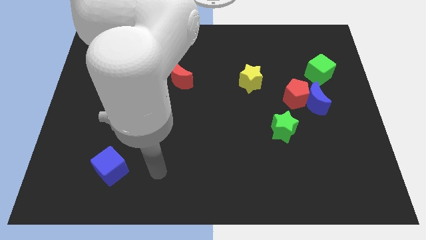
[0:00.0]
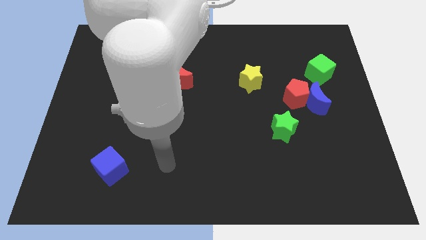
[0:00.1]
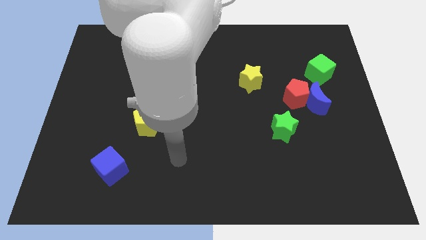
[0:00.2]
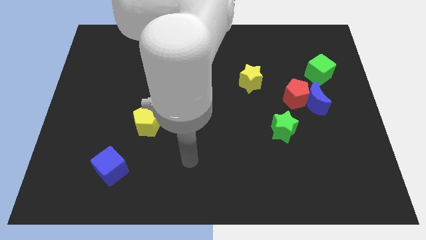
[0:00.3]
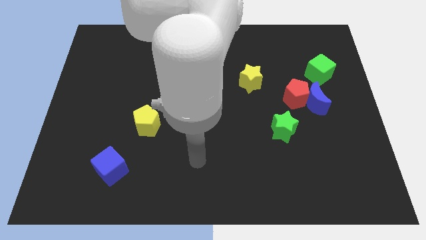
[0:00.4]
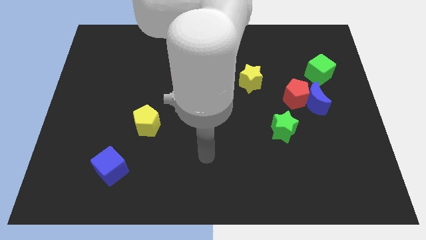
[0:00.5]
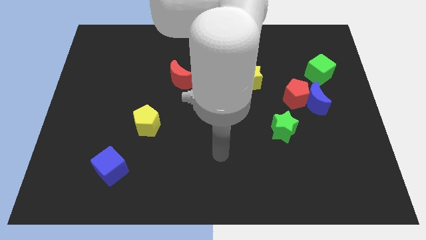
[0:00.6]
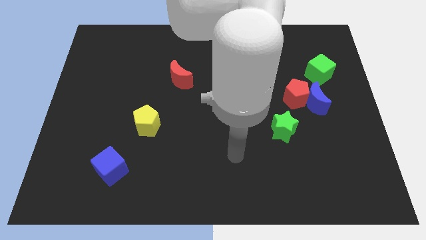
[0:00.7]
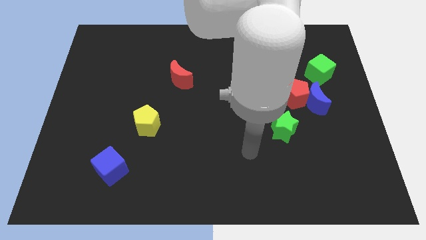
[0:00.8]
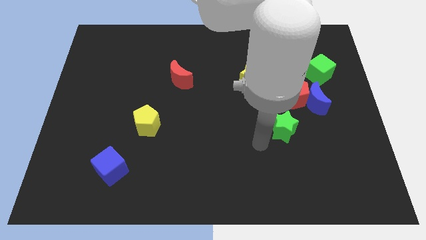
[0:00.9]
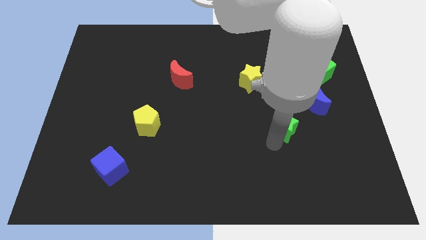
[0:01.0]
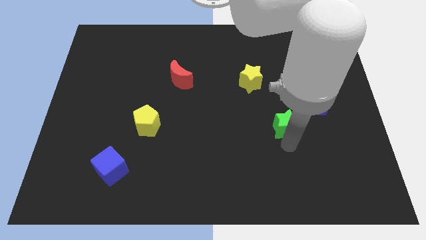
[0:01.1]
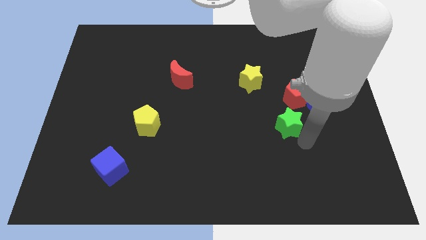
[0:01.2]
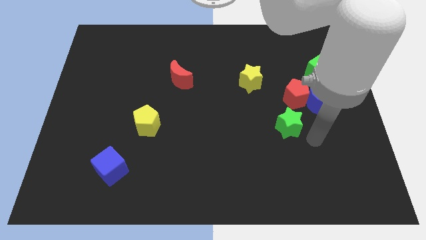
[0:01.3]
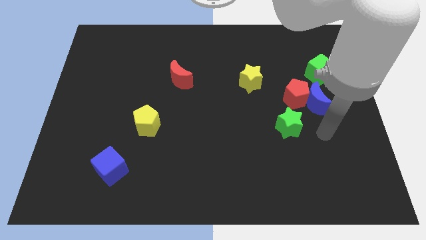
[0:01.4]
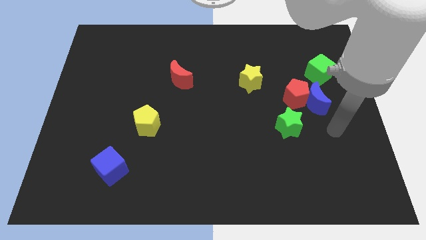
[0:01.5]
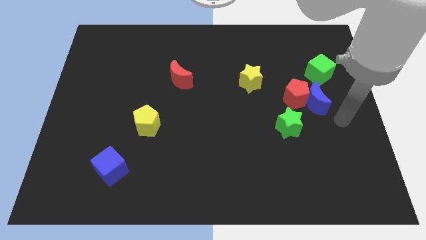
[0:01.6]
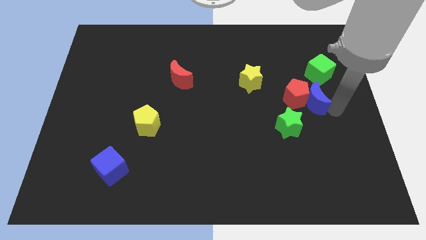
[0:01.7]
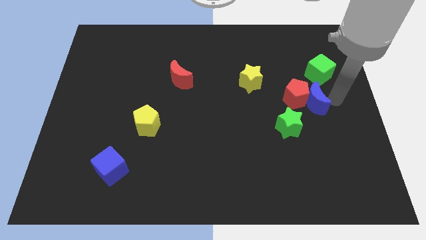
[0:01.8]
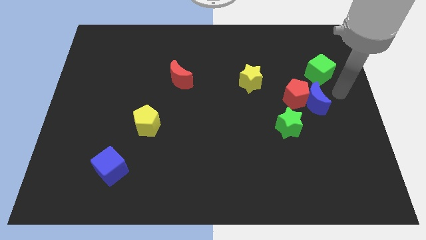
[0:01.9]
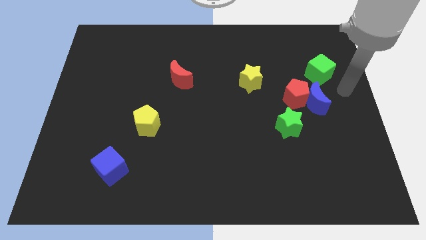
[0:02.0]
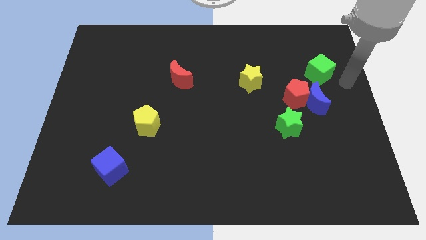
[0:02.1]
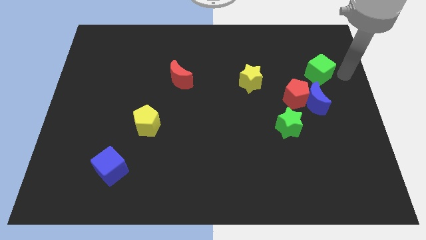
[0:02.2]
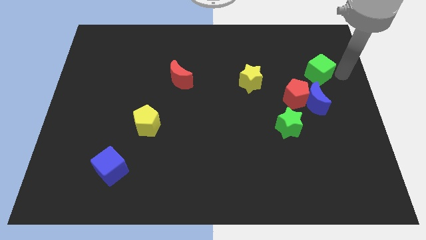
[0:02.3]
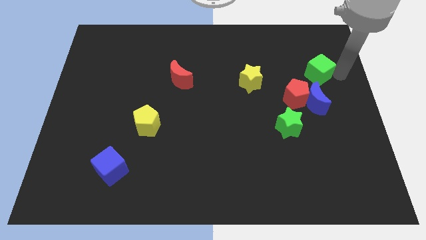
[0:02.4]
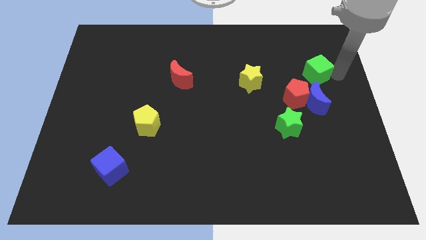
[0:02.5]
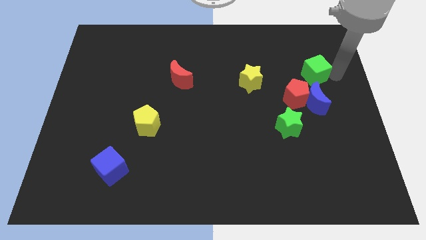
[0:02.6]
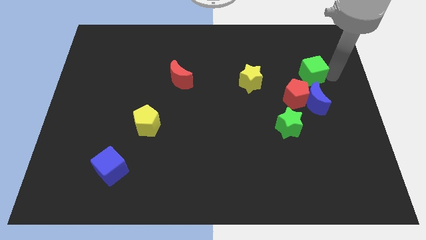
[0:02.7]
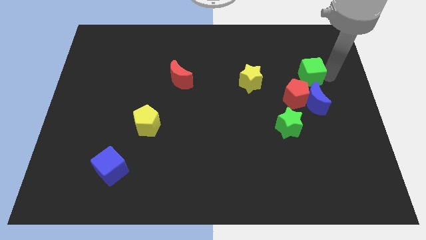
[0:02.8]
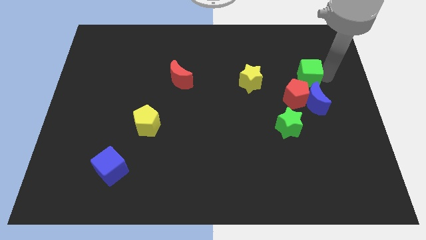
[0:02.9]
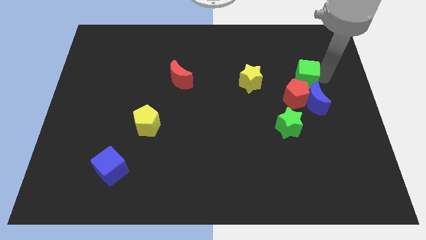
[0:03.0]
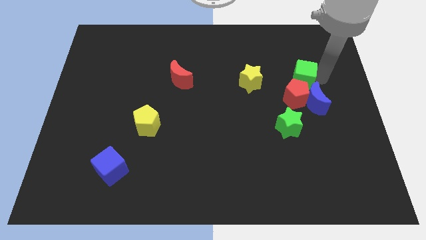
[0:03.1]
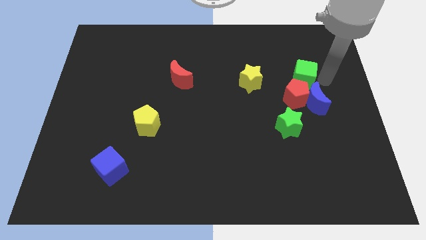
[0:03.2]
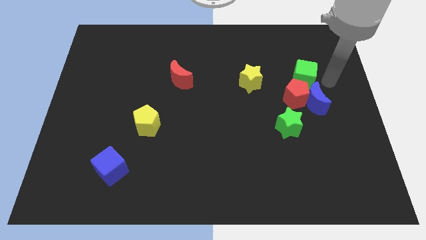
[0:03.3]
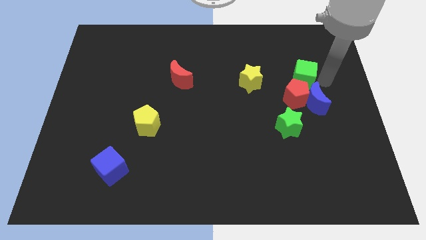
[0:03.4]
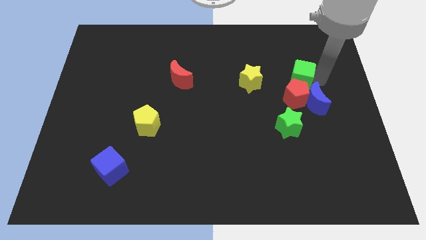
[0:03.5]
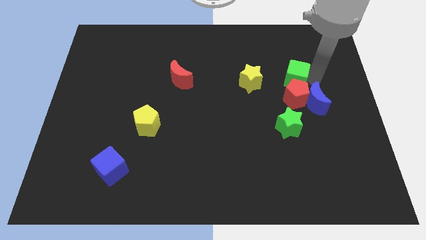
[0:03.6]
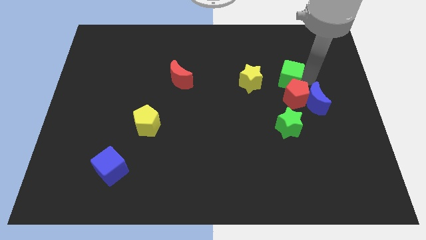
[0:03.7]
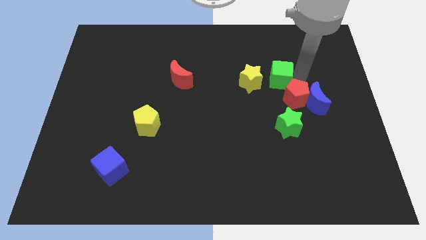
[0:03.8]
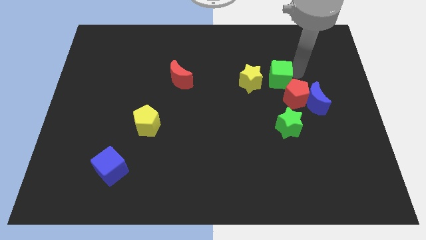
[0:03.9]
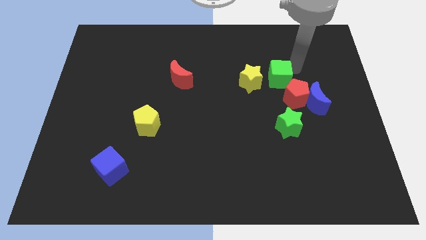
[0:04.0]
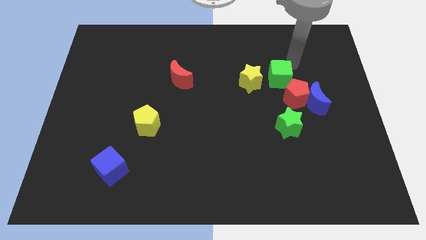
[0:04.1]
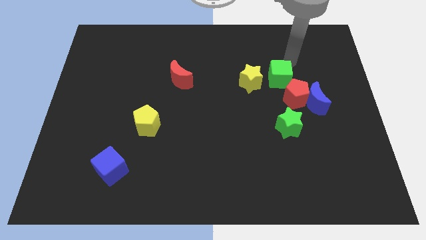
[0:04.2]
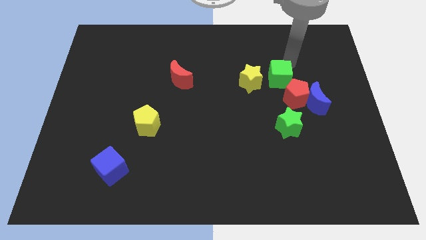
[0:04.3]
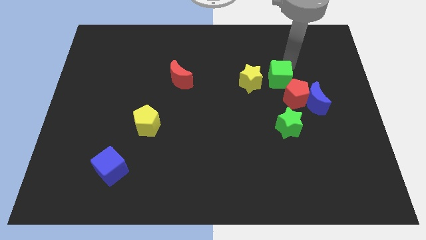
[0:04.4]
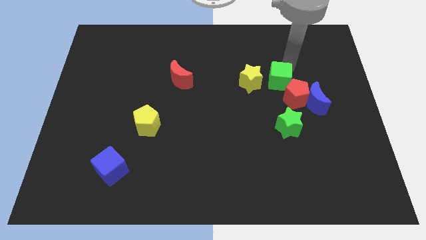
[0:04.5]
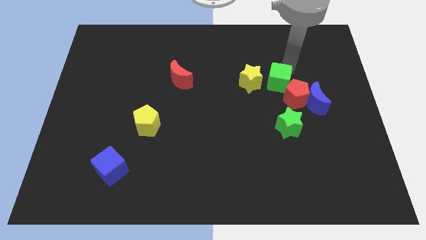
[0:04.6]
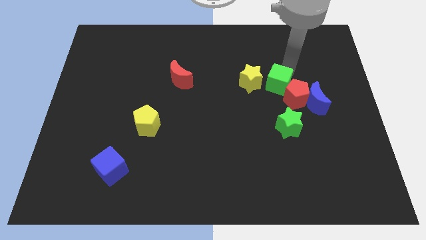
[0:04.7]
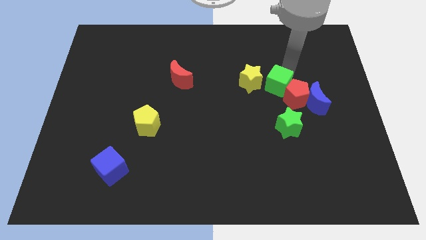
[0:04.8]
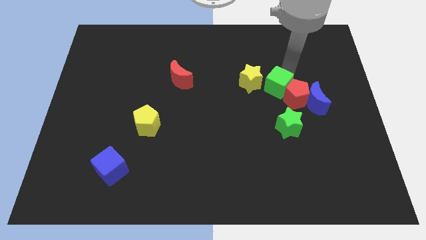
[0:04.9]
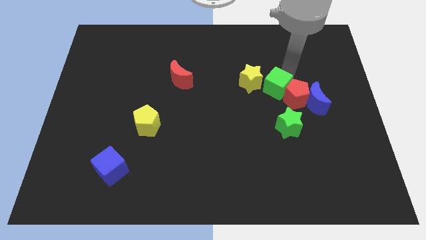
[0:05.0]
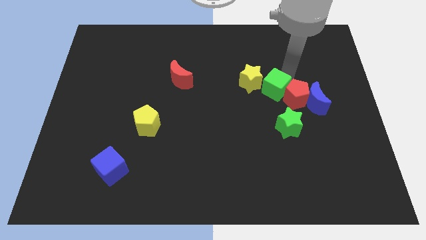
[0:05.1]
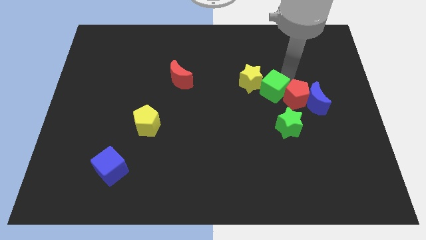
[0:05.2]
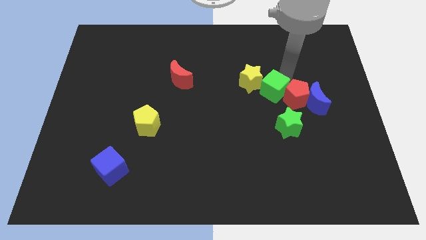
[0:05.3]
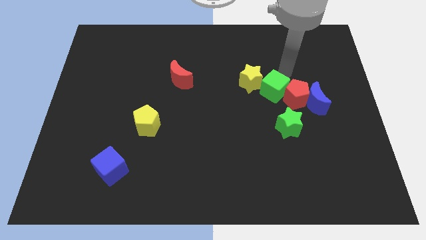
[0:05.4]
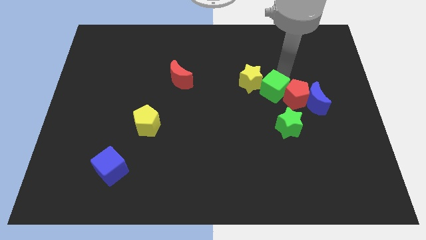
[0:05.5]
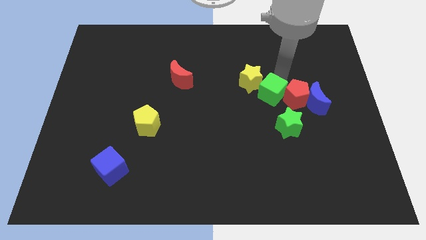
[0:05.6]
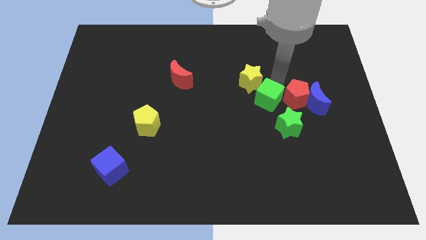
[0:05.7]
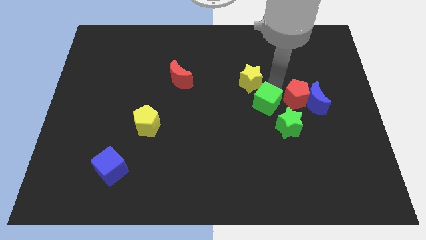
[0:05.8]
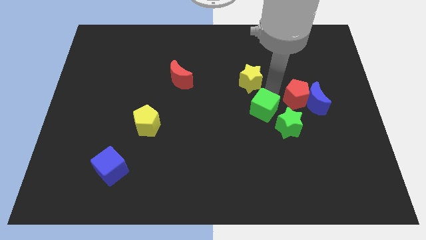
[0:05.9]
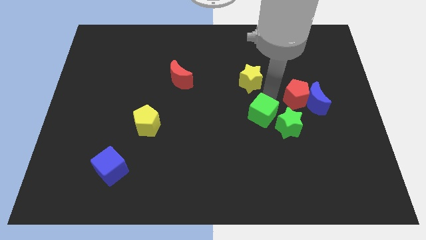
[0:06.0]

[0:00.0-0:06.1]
slide the green cube downwards and to the left diagonally

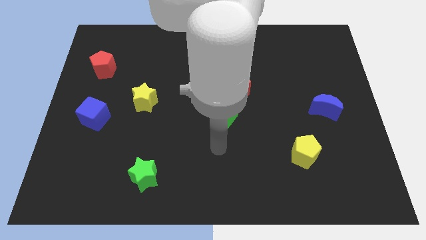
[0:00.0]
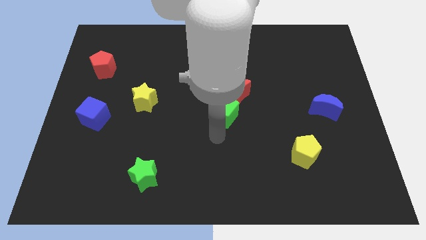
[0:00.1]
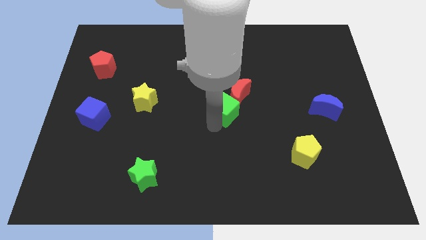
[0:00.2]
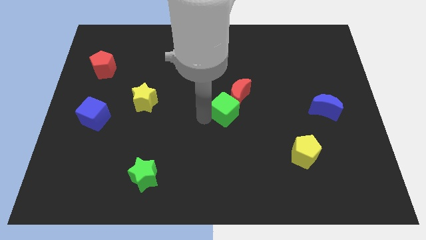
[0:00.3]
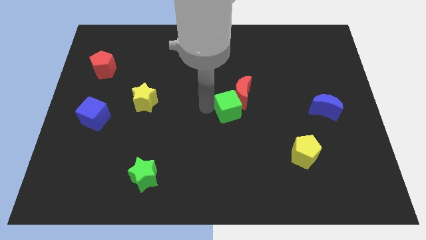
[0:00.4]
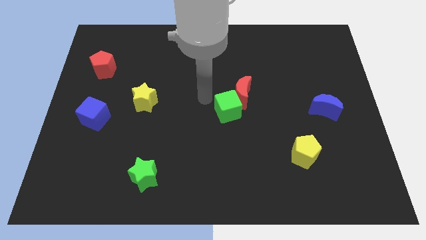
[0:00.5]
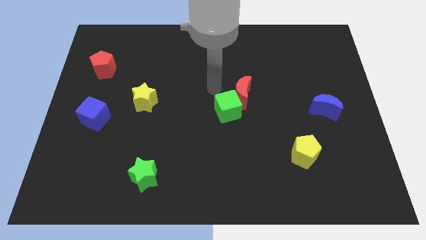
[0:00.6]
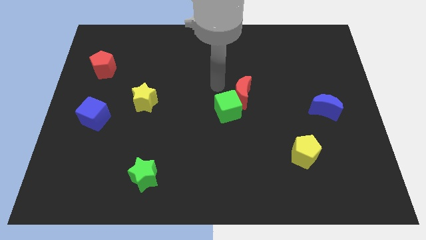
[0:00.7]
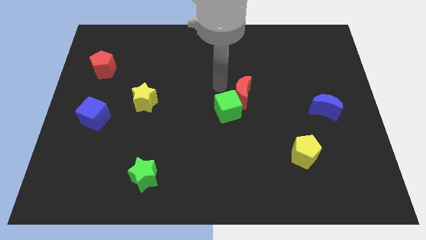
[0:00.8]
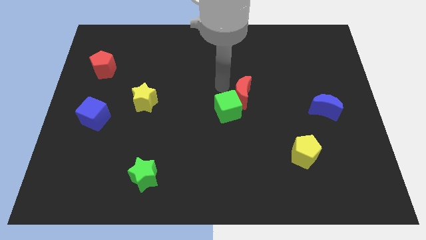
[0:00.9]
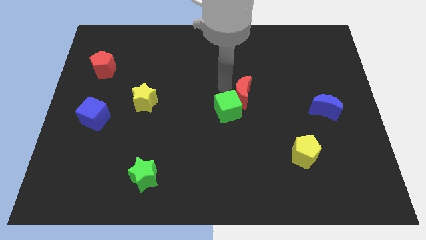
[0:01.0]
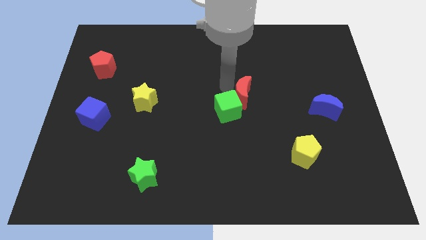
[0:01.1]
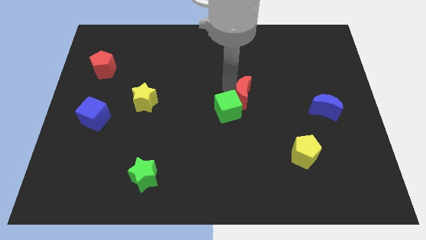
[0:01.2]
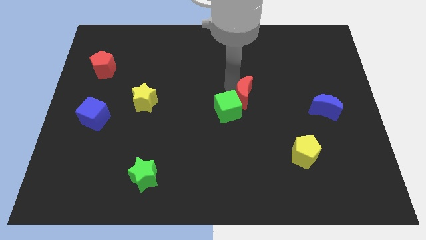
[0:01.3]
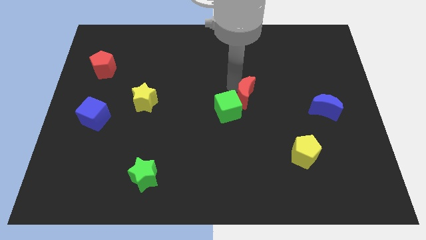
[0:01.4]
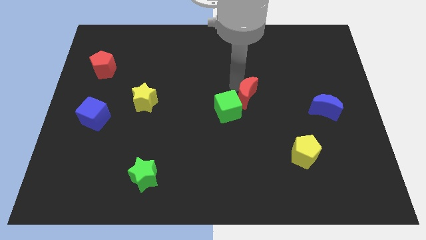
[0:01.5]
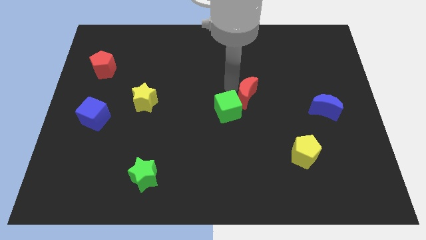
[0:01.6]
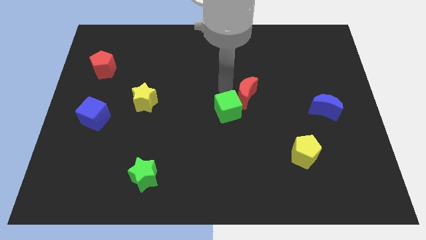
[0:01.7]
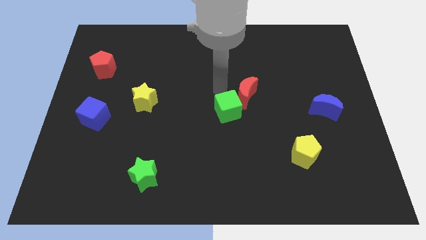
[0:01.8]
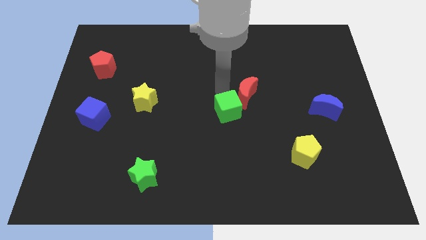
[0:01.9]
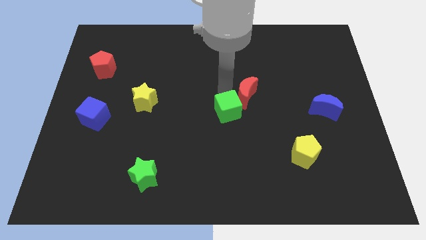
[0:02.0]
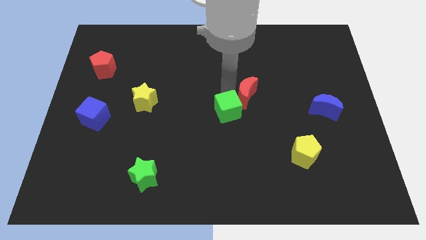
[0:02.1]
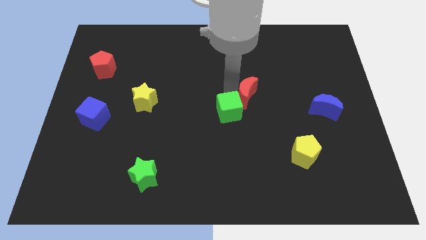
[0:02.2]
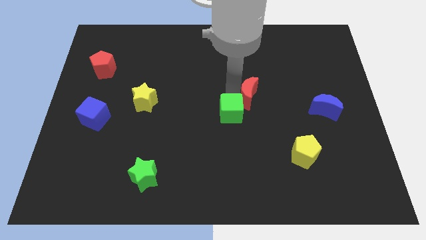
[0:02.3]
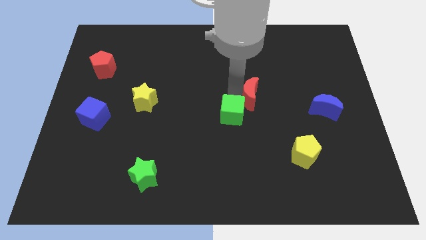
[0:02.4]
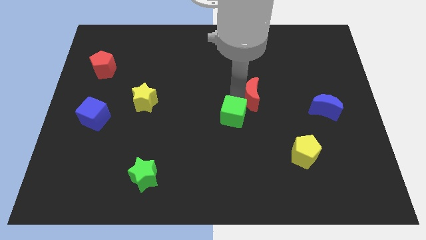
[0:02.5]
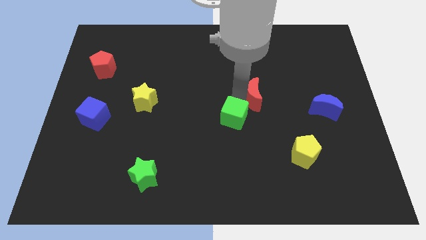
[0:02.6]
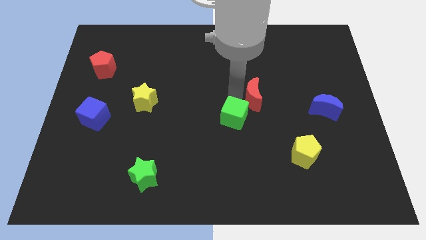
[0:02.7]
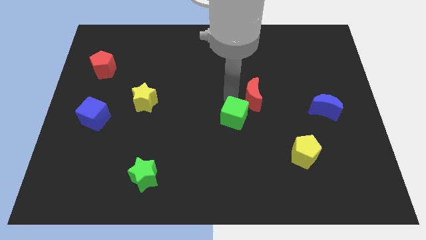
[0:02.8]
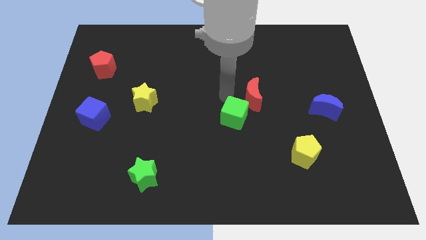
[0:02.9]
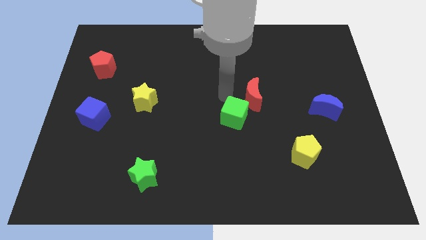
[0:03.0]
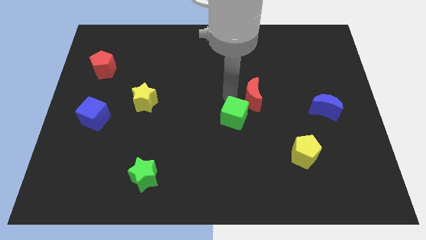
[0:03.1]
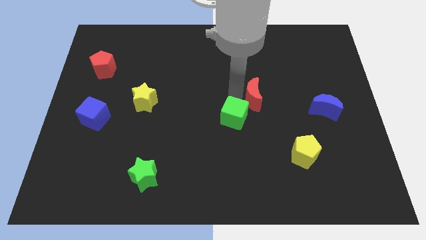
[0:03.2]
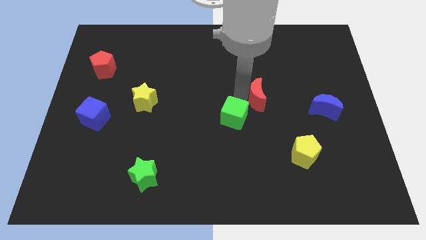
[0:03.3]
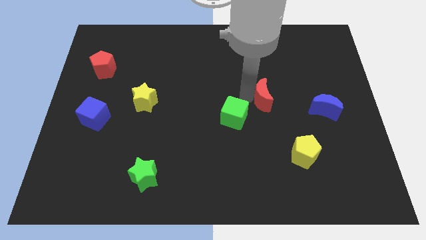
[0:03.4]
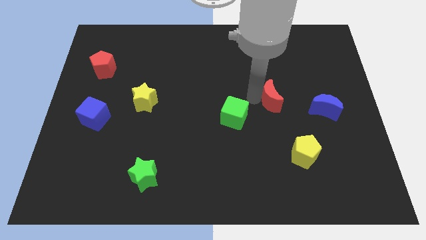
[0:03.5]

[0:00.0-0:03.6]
move the red moon right a little bit
